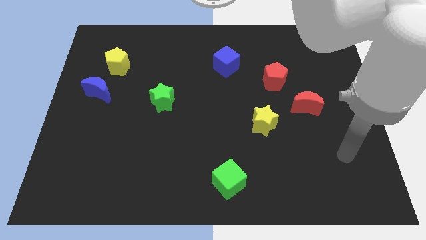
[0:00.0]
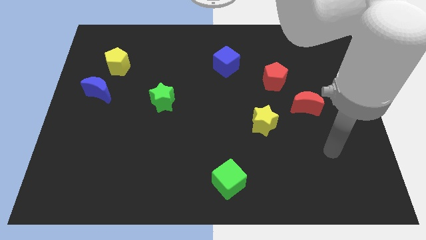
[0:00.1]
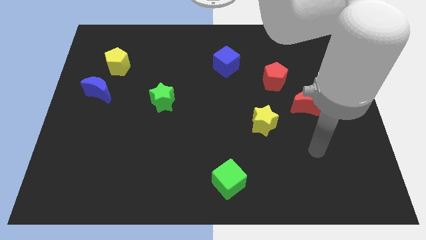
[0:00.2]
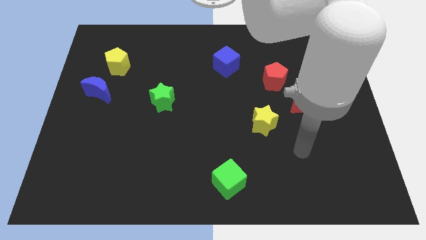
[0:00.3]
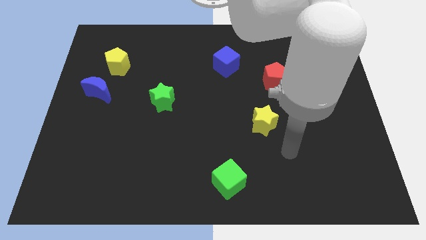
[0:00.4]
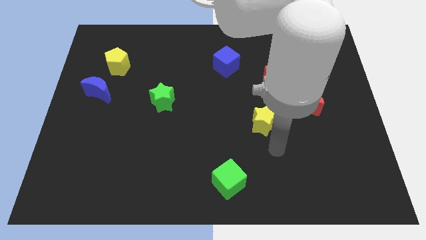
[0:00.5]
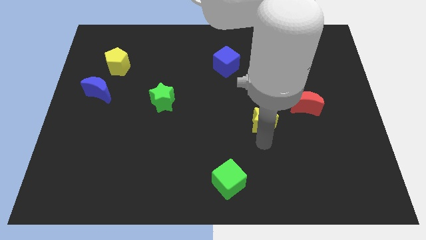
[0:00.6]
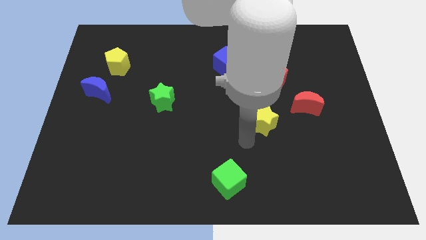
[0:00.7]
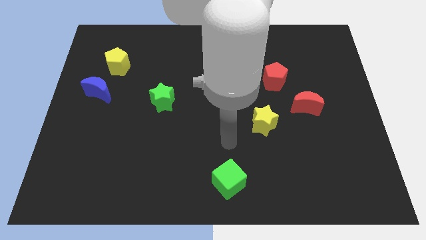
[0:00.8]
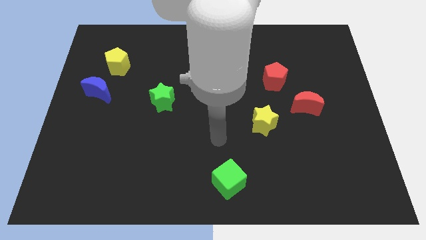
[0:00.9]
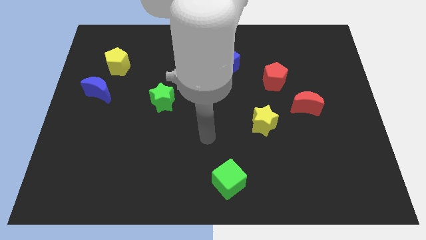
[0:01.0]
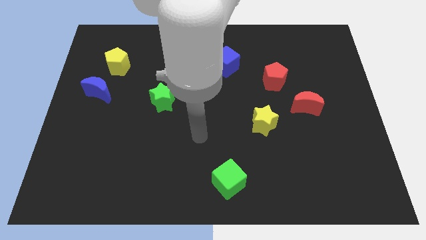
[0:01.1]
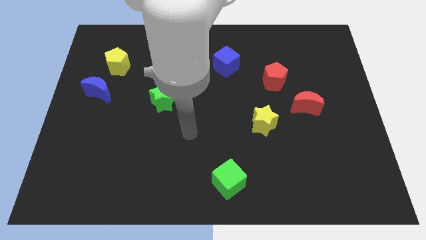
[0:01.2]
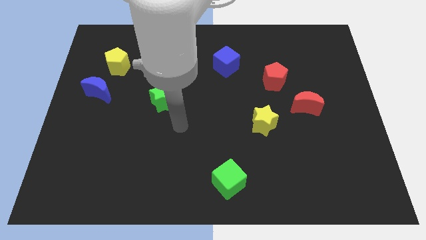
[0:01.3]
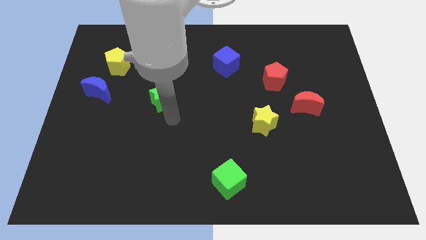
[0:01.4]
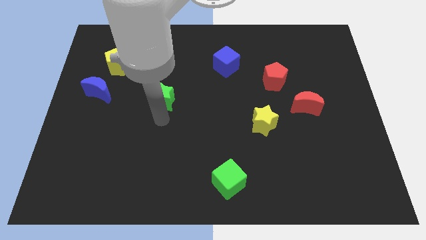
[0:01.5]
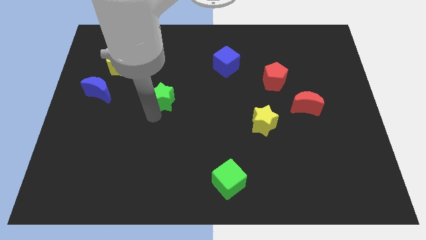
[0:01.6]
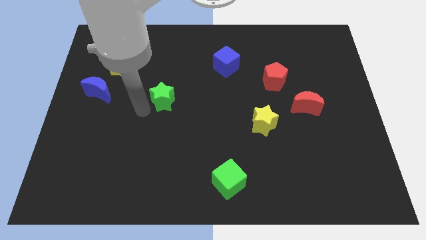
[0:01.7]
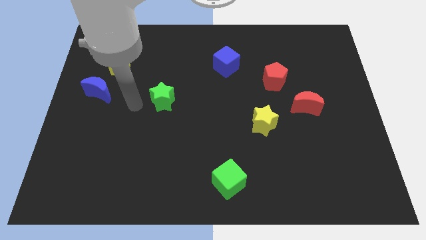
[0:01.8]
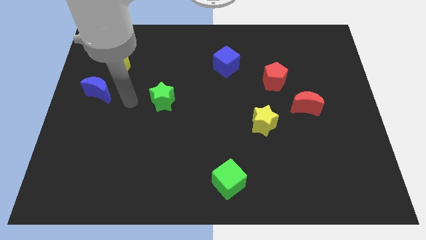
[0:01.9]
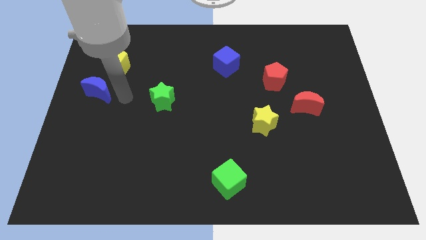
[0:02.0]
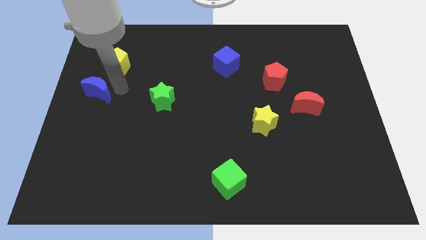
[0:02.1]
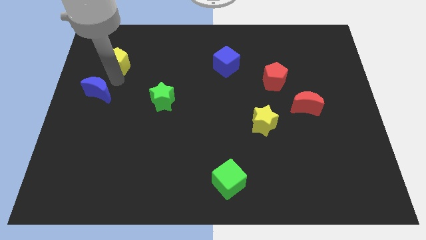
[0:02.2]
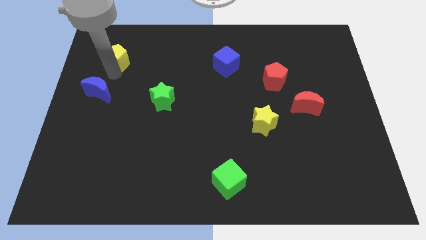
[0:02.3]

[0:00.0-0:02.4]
separate the blue moon from the yellow pentagon

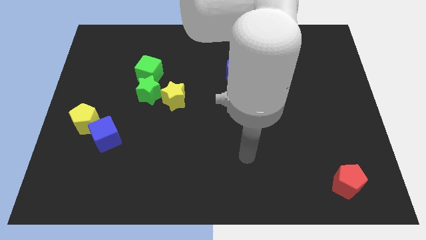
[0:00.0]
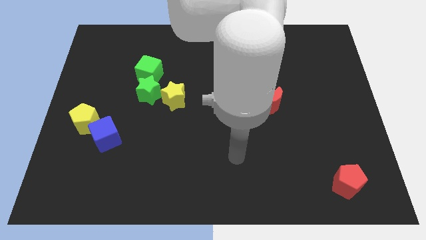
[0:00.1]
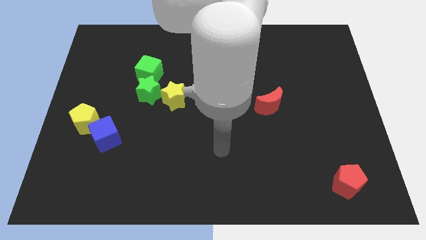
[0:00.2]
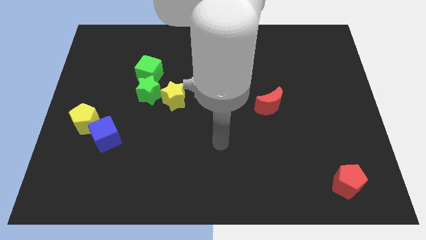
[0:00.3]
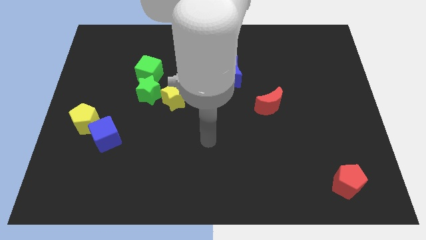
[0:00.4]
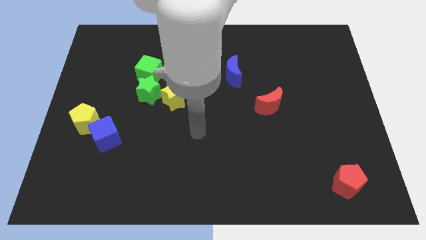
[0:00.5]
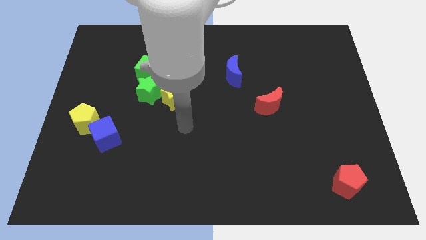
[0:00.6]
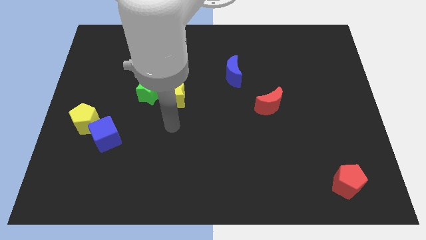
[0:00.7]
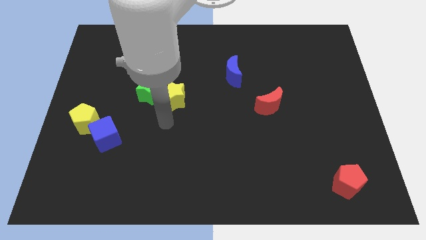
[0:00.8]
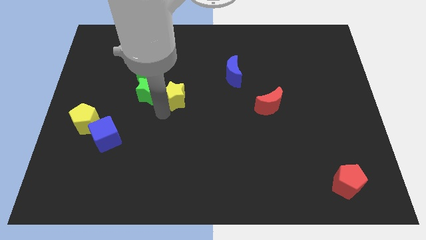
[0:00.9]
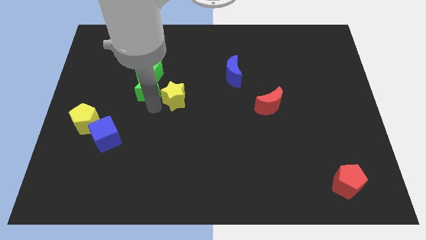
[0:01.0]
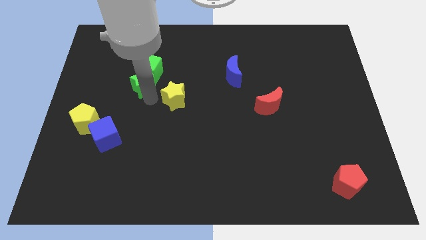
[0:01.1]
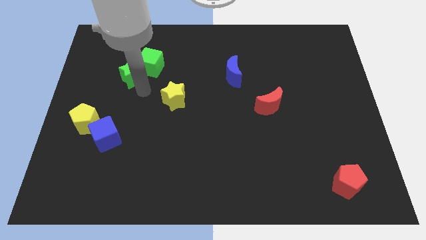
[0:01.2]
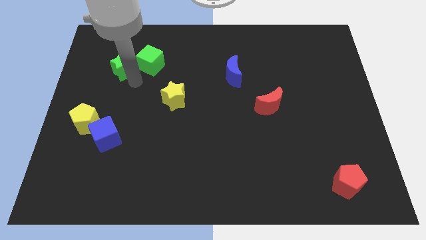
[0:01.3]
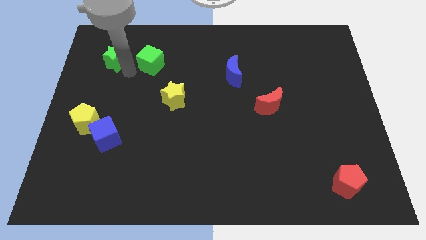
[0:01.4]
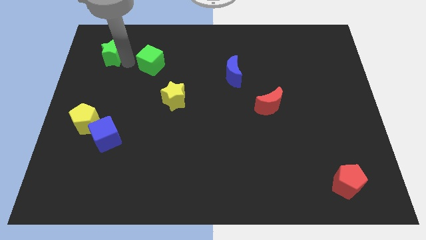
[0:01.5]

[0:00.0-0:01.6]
separate the green cube from the green star

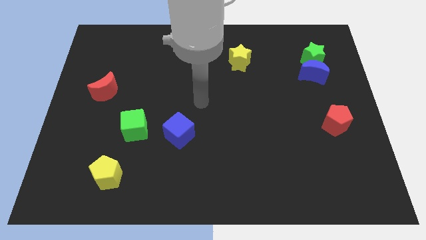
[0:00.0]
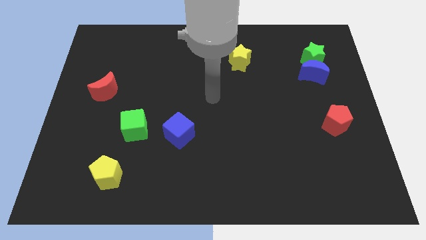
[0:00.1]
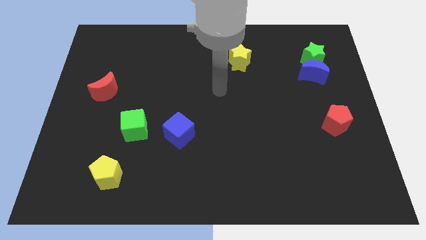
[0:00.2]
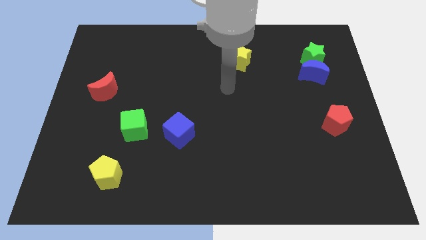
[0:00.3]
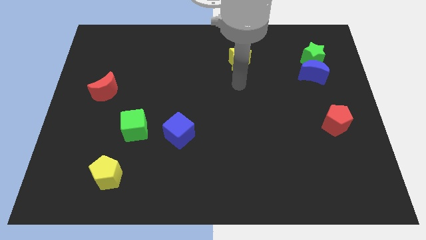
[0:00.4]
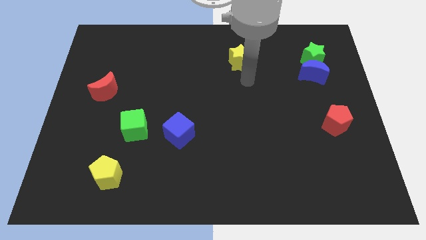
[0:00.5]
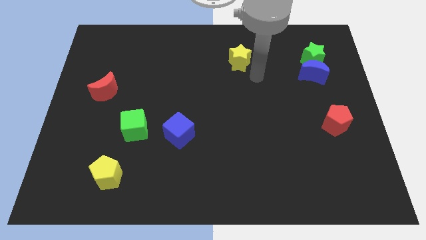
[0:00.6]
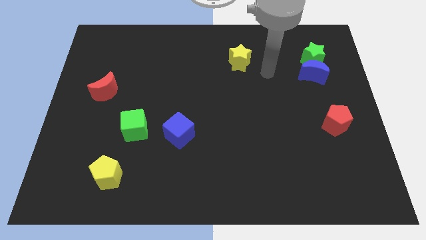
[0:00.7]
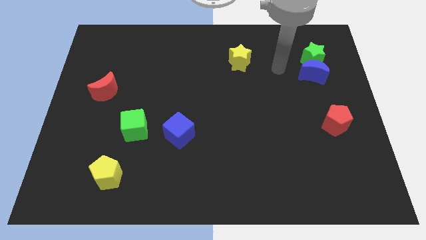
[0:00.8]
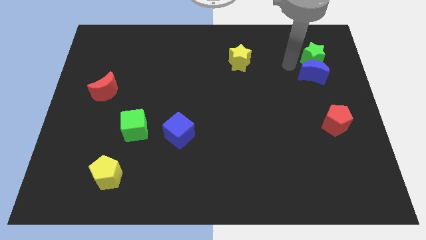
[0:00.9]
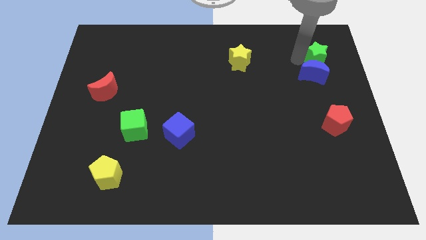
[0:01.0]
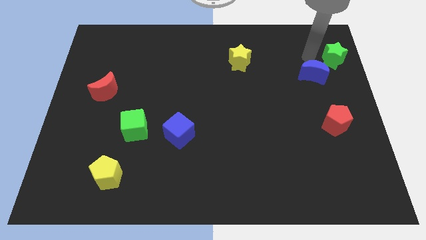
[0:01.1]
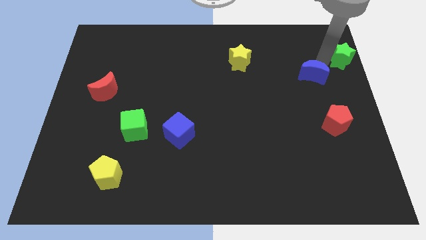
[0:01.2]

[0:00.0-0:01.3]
pull the blue moon apart from the green star

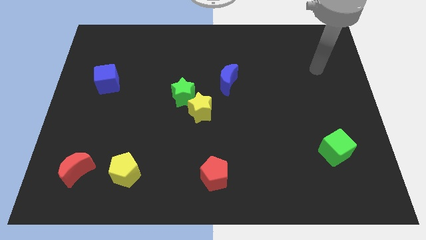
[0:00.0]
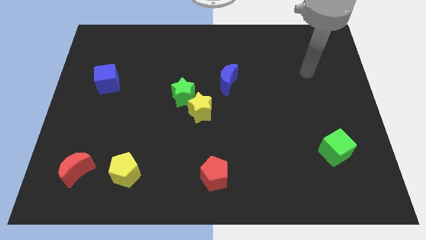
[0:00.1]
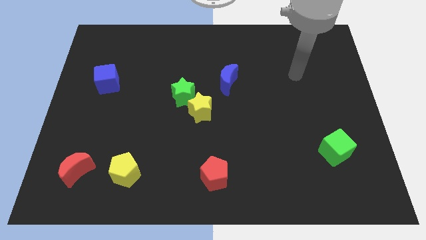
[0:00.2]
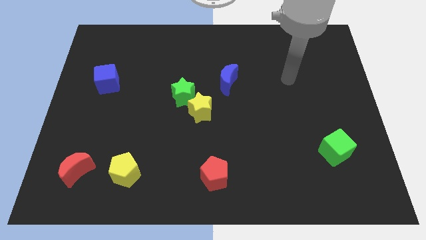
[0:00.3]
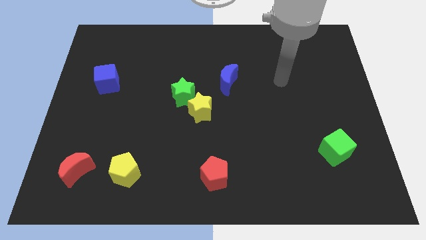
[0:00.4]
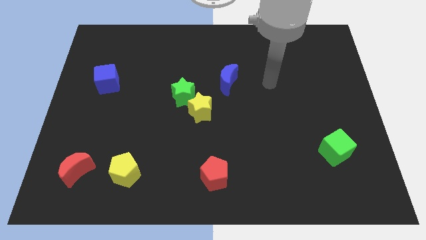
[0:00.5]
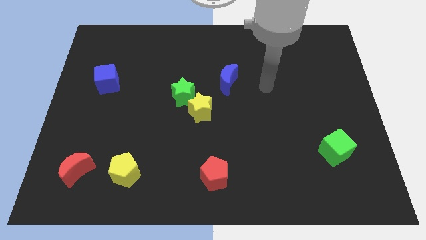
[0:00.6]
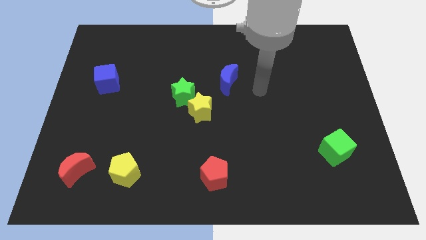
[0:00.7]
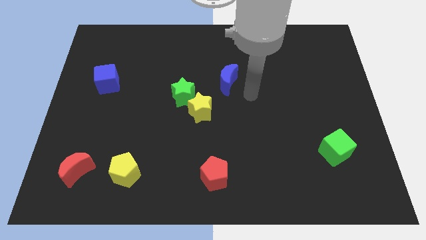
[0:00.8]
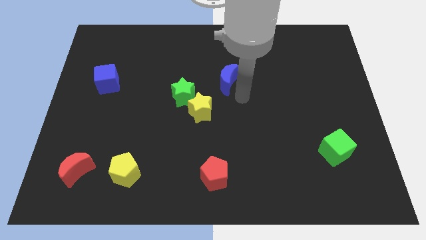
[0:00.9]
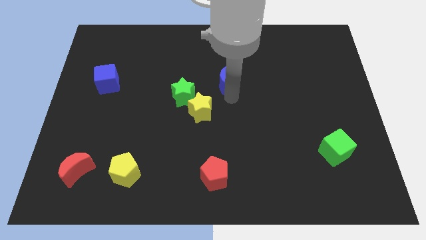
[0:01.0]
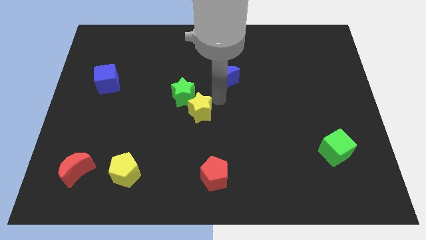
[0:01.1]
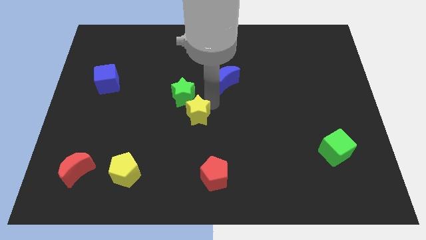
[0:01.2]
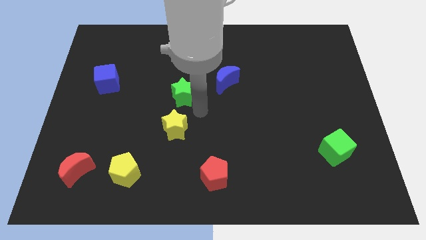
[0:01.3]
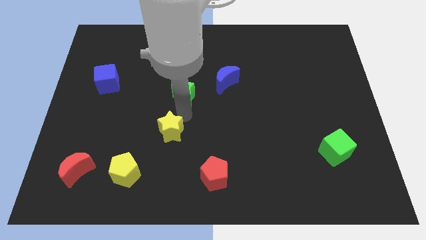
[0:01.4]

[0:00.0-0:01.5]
move the green star away from the yellow star

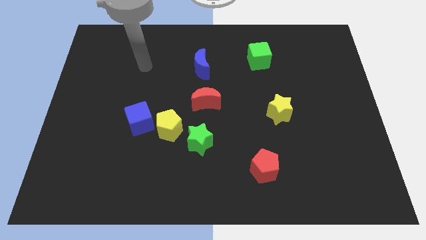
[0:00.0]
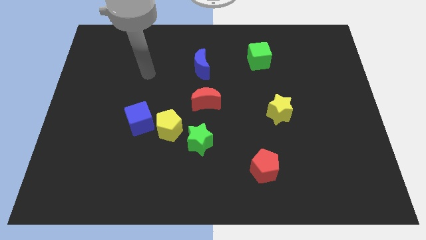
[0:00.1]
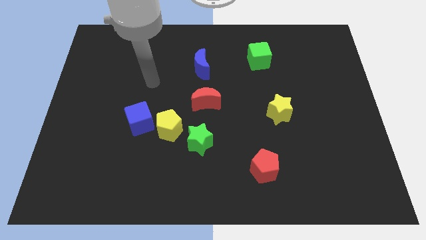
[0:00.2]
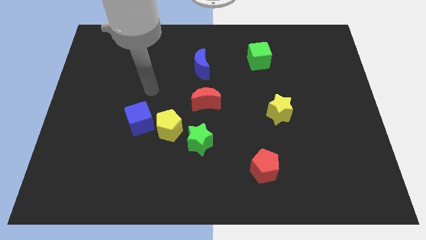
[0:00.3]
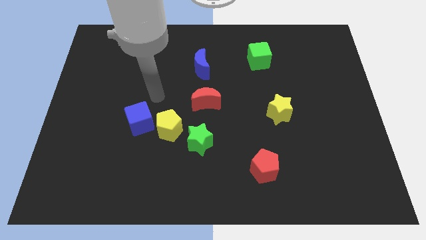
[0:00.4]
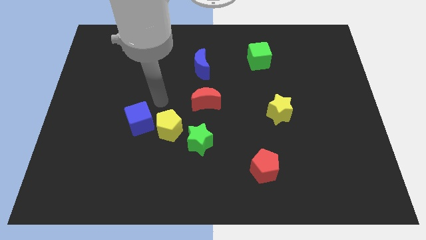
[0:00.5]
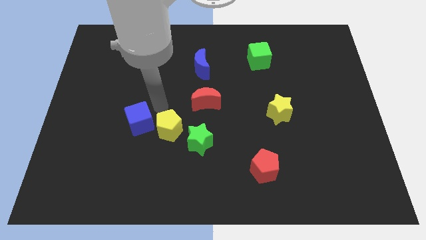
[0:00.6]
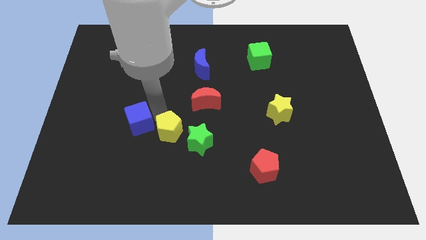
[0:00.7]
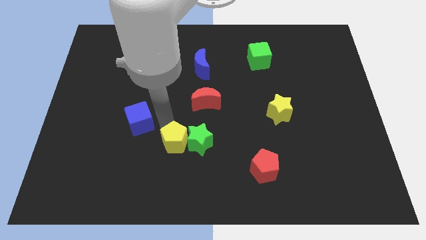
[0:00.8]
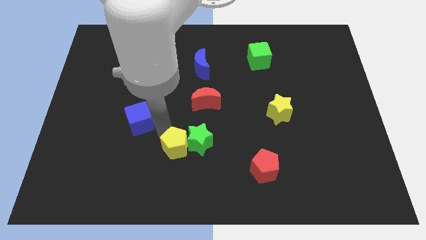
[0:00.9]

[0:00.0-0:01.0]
separate the blue cube from the yellow pentagon

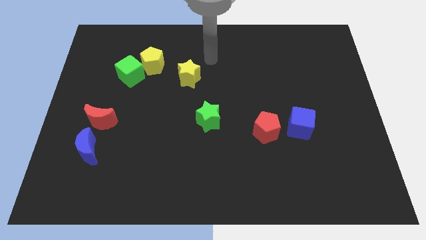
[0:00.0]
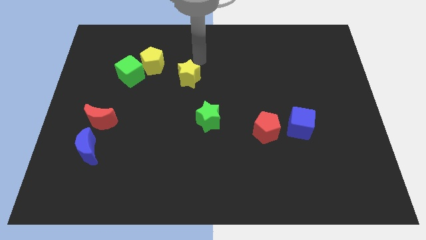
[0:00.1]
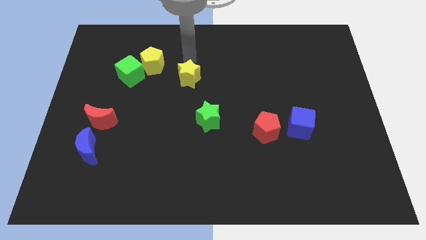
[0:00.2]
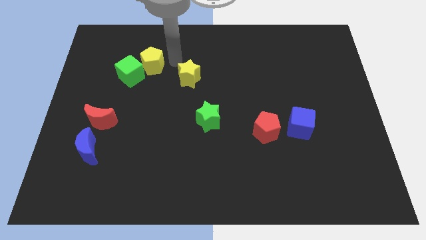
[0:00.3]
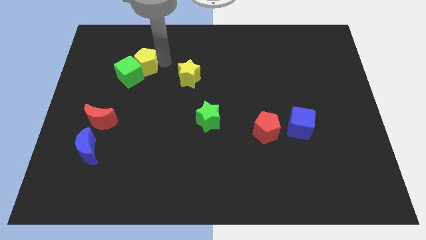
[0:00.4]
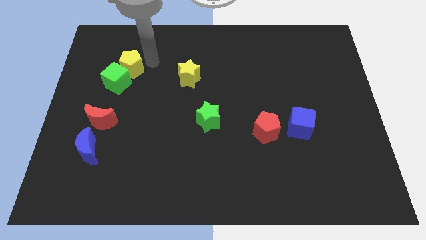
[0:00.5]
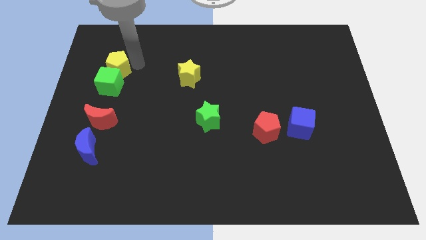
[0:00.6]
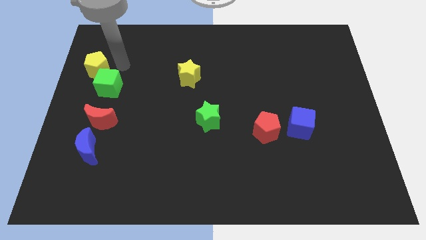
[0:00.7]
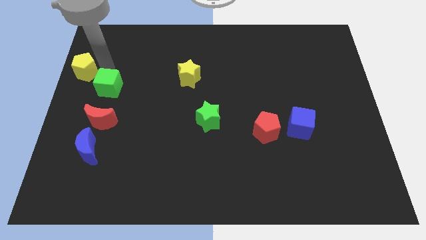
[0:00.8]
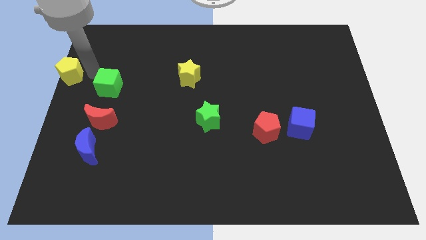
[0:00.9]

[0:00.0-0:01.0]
pull the green cube apart from the yellow pentagon

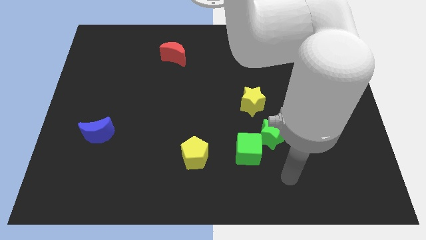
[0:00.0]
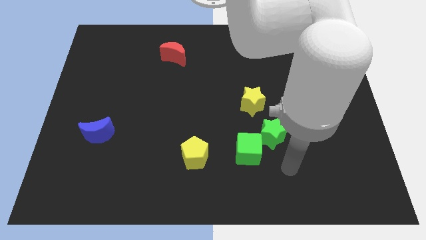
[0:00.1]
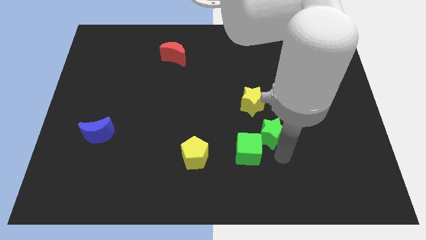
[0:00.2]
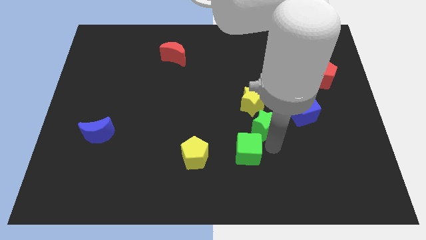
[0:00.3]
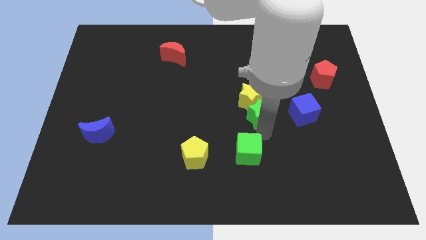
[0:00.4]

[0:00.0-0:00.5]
move the green cube away from the green star
